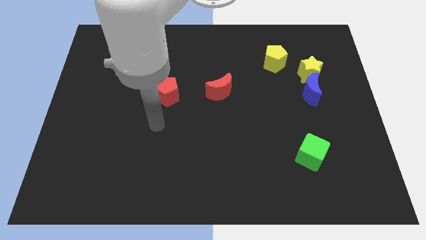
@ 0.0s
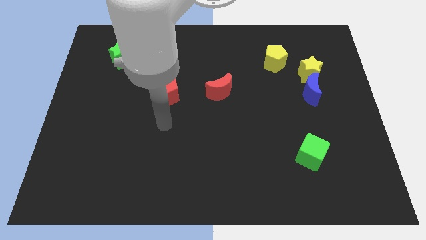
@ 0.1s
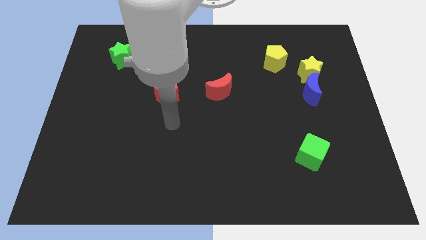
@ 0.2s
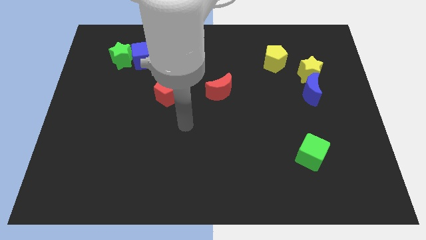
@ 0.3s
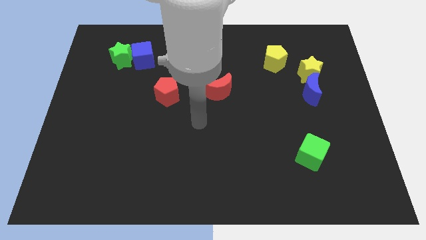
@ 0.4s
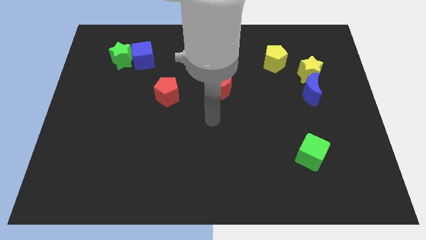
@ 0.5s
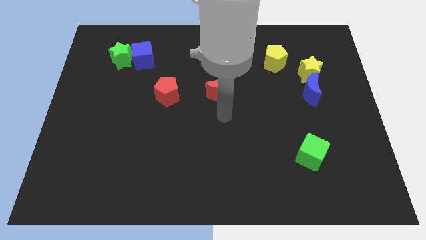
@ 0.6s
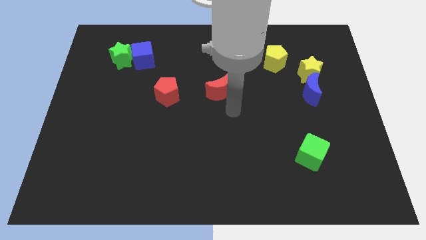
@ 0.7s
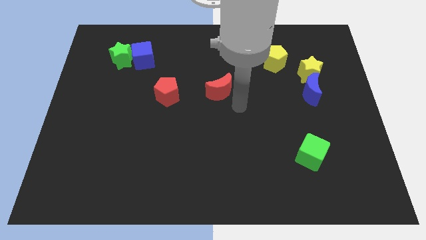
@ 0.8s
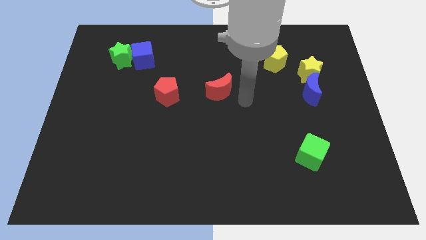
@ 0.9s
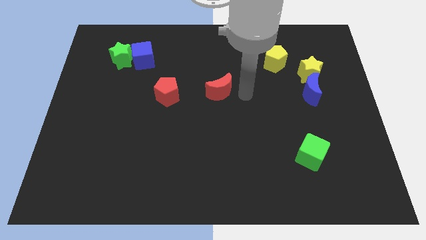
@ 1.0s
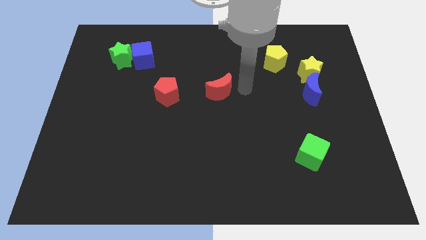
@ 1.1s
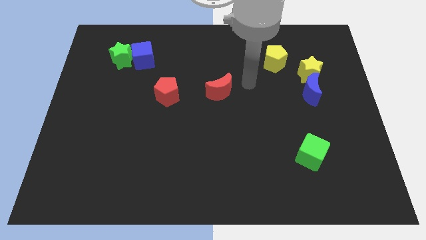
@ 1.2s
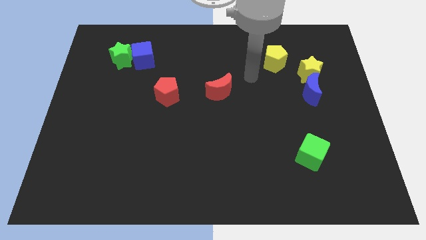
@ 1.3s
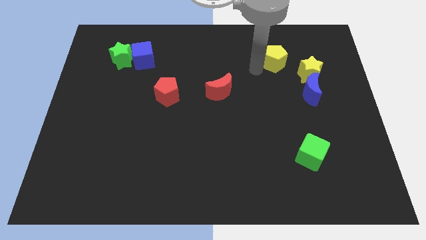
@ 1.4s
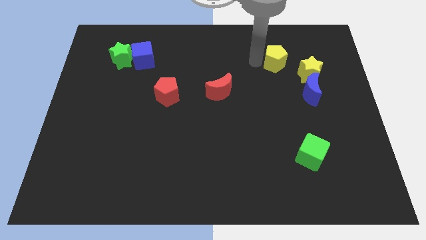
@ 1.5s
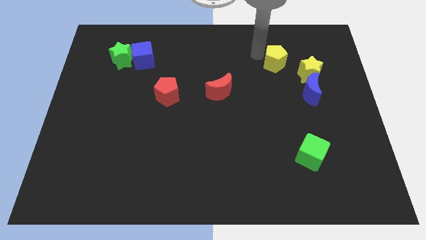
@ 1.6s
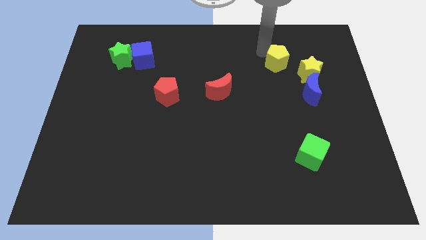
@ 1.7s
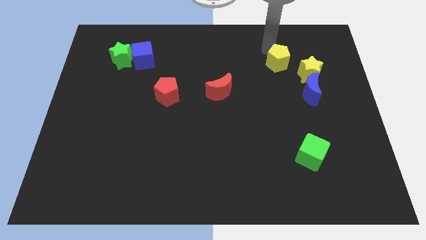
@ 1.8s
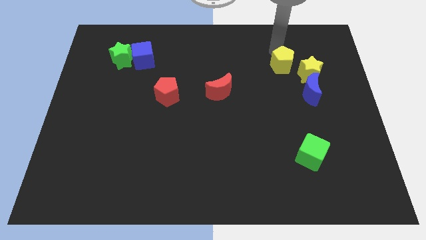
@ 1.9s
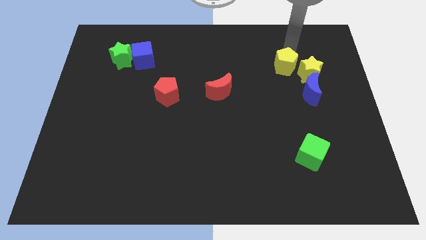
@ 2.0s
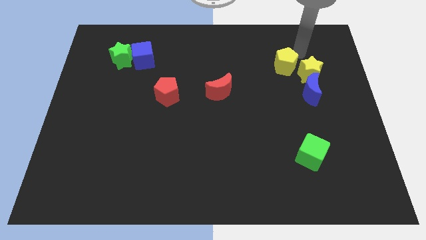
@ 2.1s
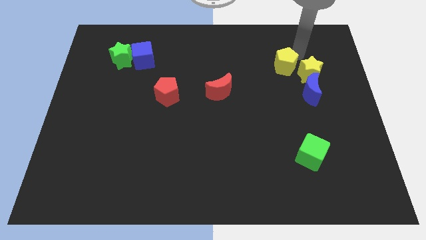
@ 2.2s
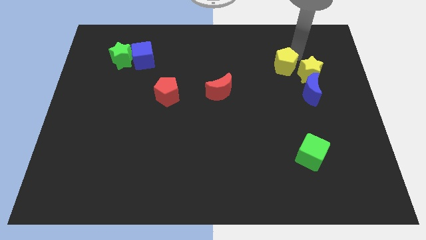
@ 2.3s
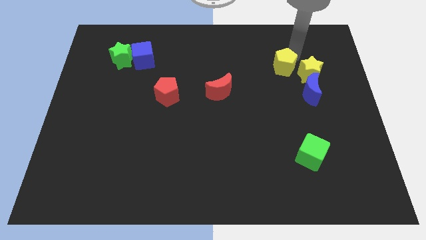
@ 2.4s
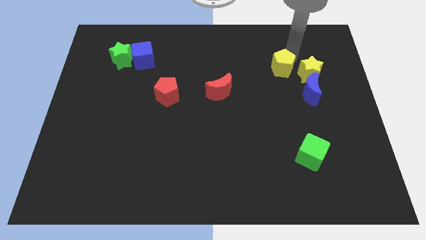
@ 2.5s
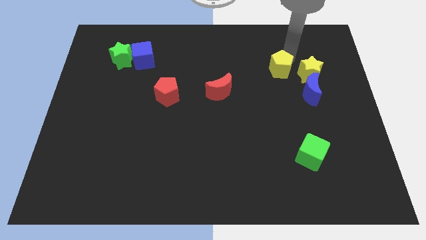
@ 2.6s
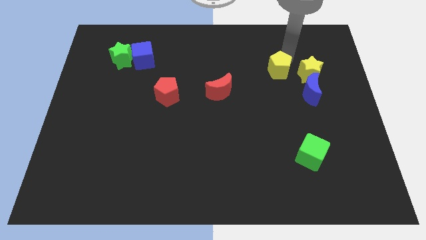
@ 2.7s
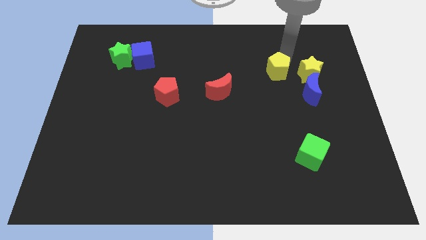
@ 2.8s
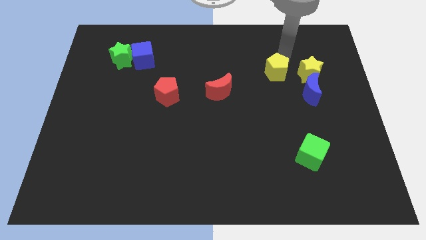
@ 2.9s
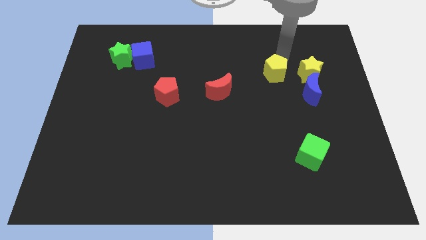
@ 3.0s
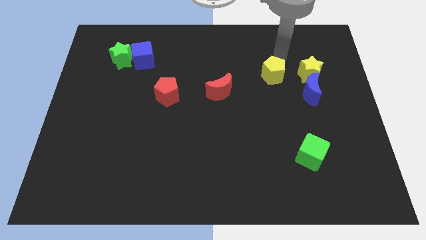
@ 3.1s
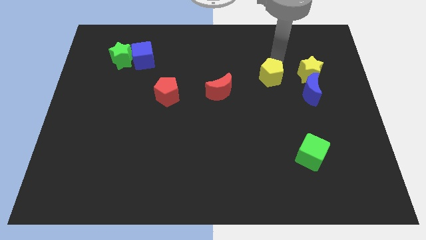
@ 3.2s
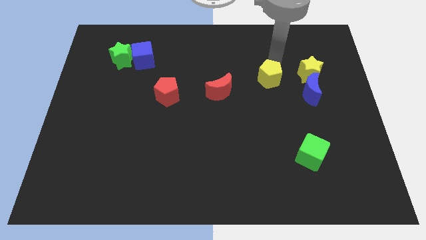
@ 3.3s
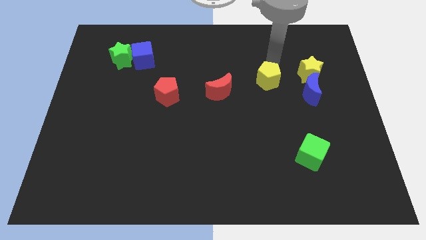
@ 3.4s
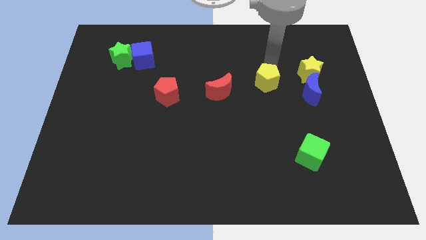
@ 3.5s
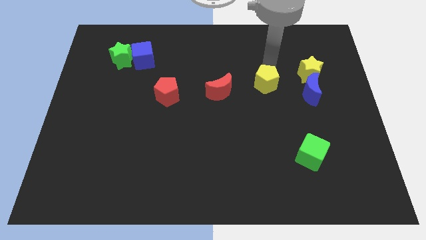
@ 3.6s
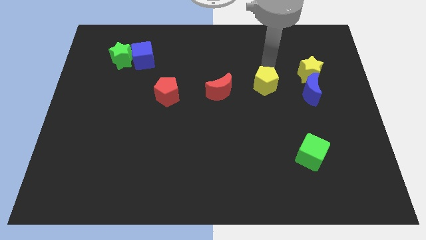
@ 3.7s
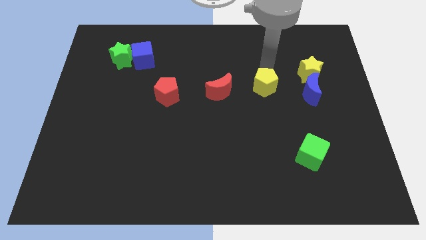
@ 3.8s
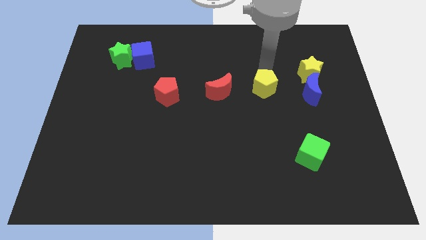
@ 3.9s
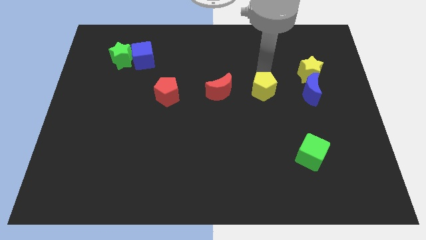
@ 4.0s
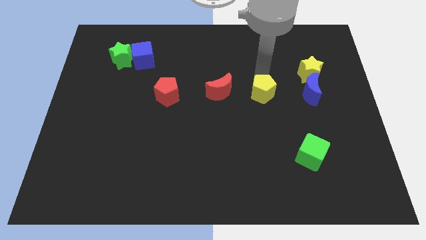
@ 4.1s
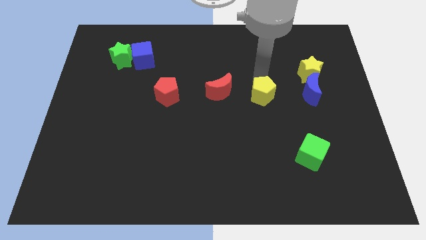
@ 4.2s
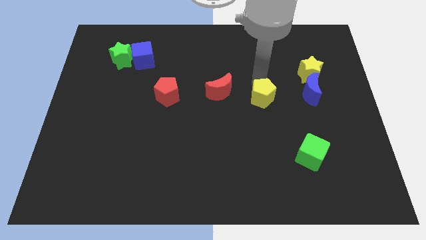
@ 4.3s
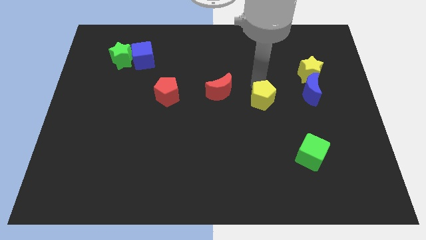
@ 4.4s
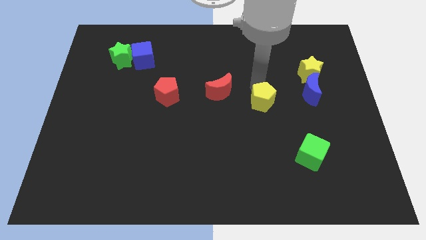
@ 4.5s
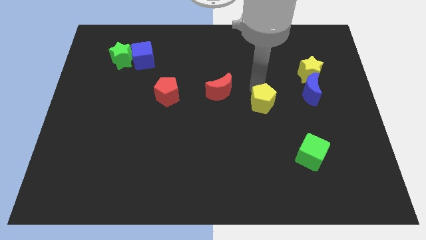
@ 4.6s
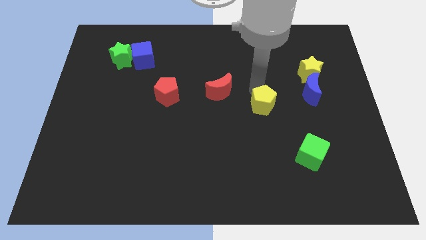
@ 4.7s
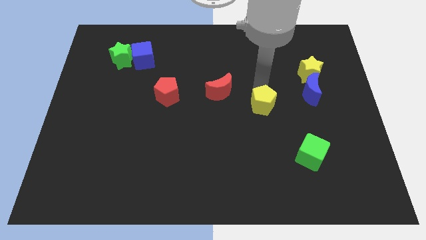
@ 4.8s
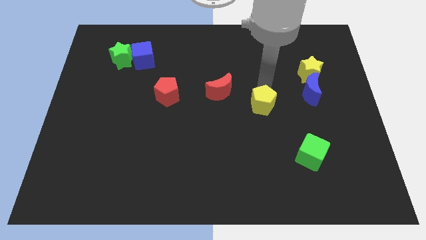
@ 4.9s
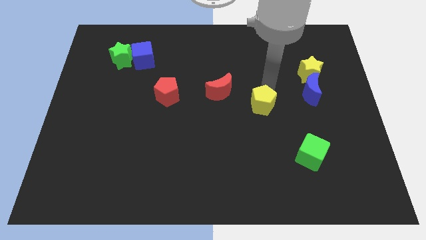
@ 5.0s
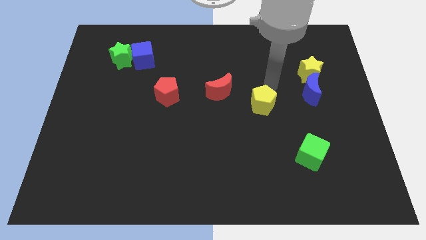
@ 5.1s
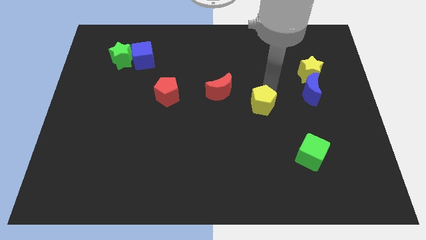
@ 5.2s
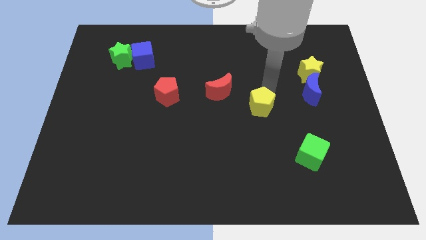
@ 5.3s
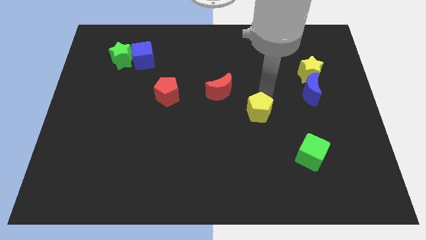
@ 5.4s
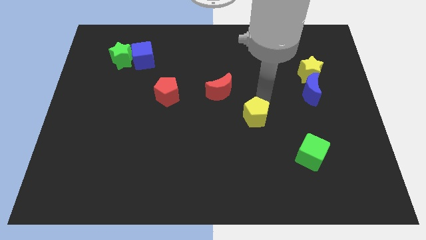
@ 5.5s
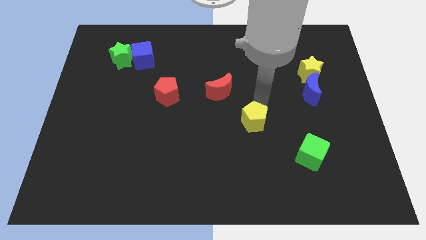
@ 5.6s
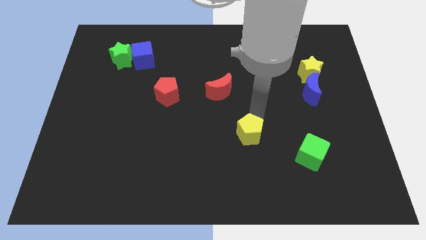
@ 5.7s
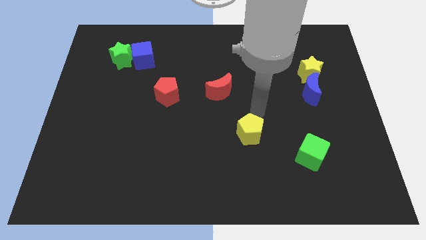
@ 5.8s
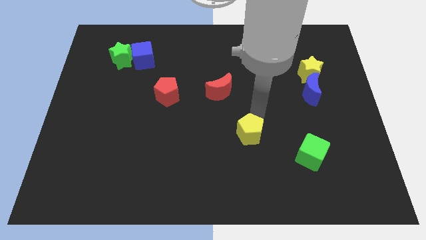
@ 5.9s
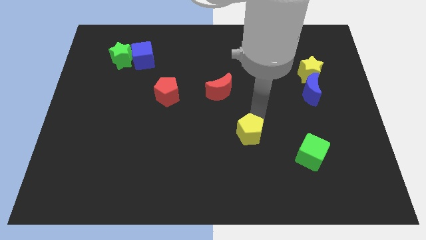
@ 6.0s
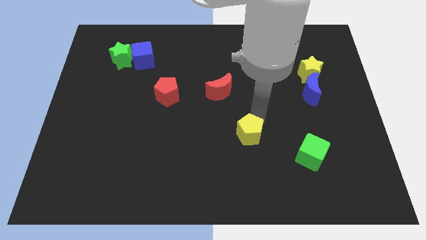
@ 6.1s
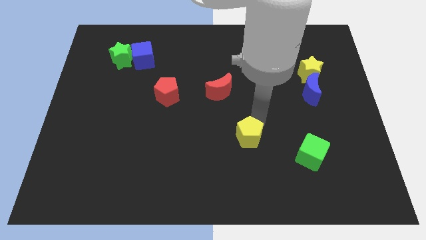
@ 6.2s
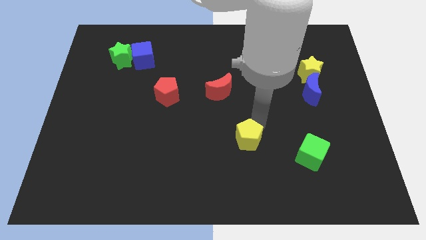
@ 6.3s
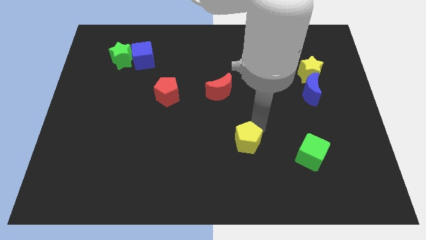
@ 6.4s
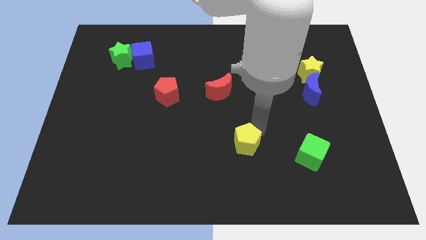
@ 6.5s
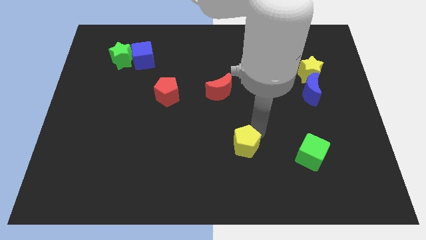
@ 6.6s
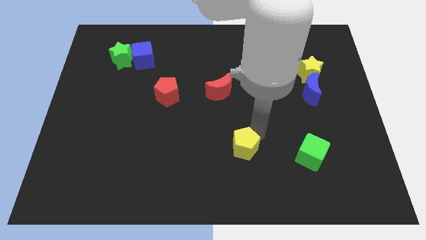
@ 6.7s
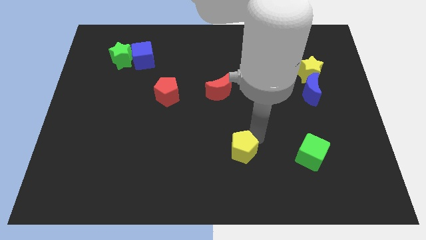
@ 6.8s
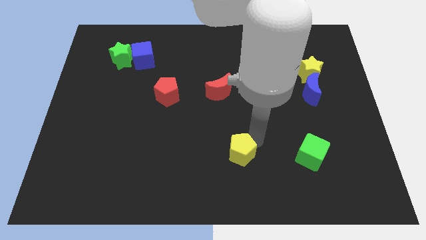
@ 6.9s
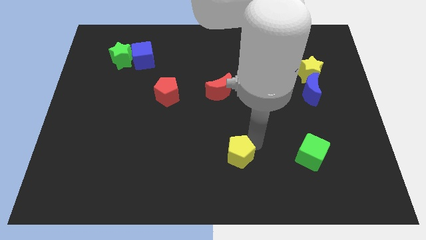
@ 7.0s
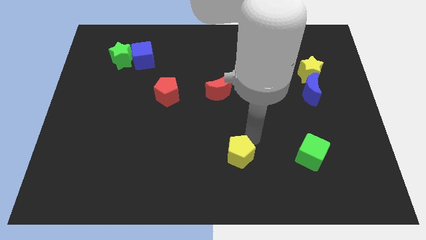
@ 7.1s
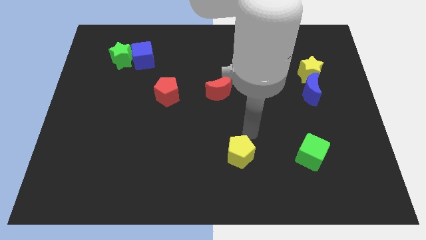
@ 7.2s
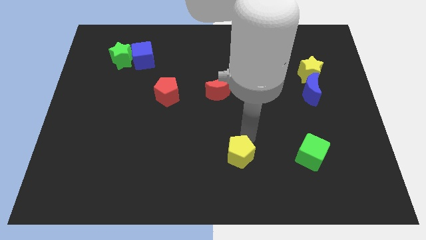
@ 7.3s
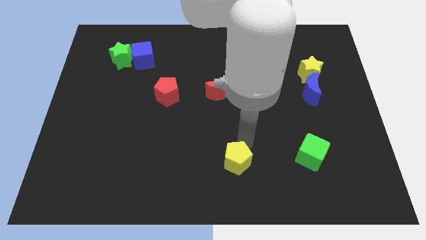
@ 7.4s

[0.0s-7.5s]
push the yellow pentagon to the bottom side
